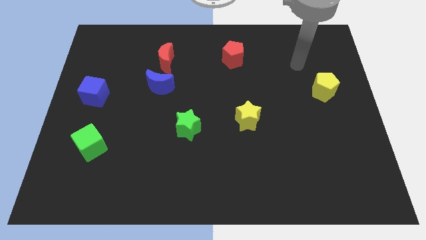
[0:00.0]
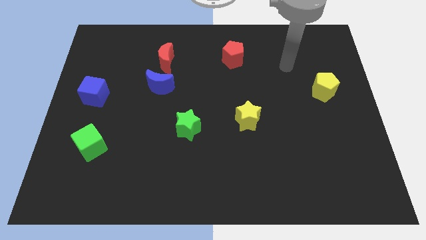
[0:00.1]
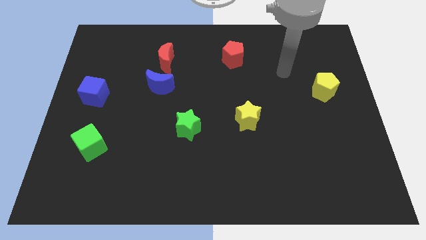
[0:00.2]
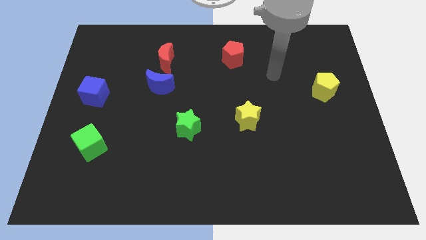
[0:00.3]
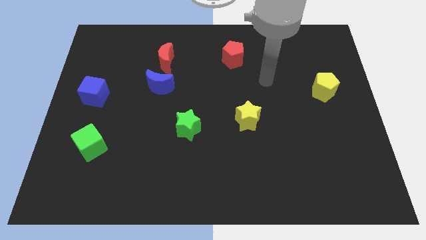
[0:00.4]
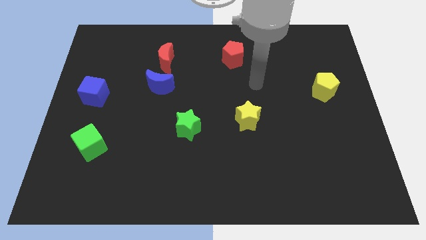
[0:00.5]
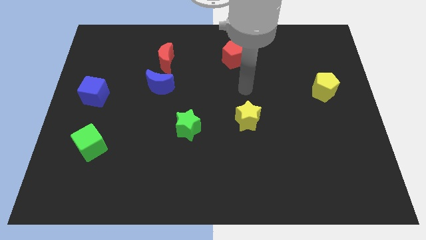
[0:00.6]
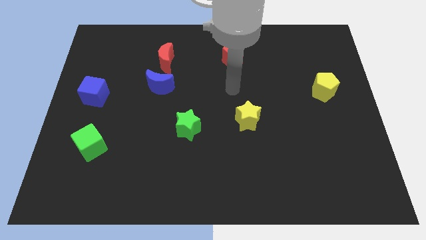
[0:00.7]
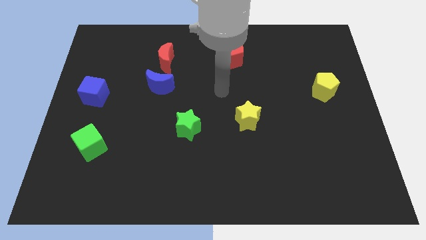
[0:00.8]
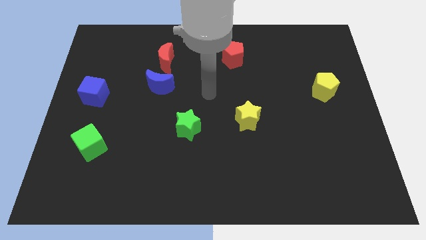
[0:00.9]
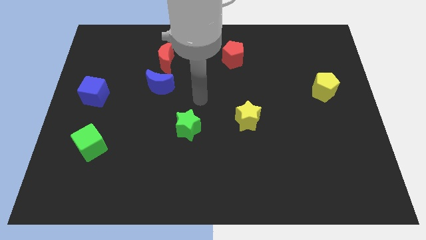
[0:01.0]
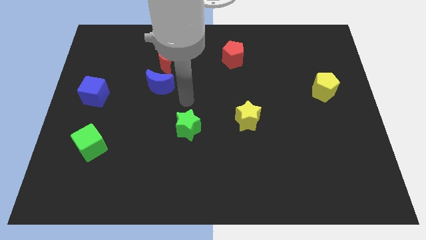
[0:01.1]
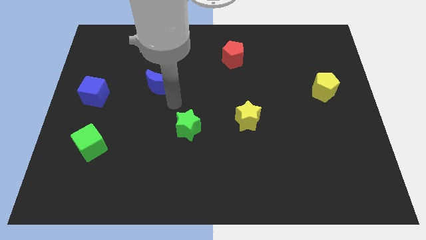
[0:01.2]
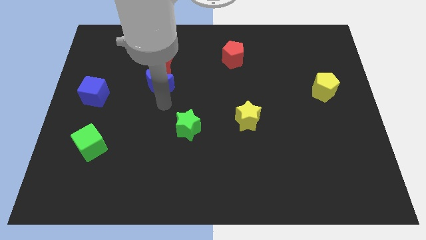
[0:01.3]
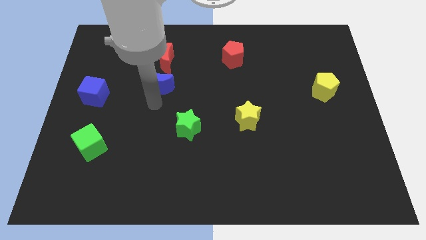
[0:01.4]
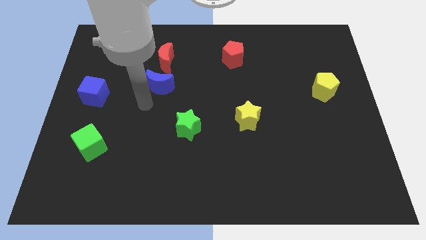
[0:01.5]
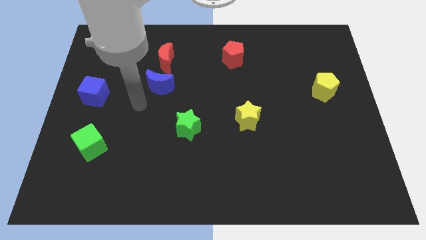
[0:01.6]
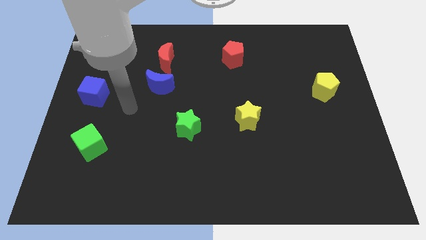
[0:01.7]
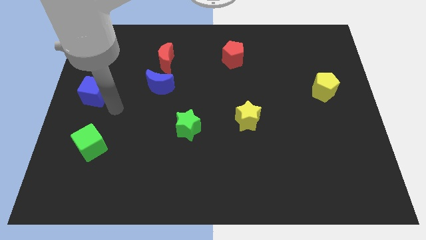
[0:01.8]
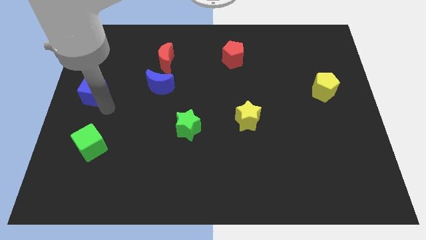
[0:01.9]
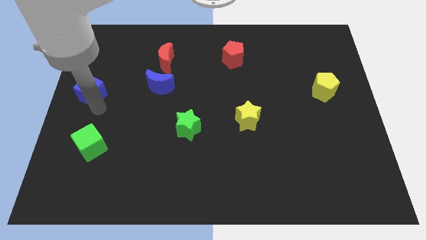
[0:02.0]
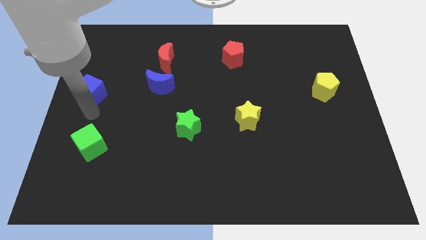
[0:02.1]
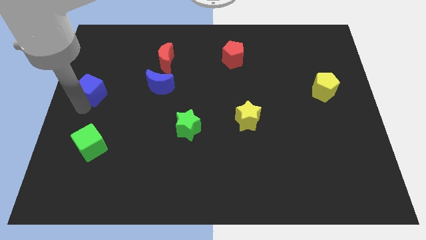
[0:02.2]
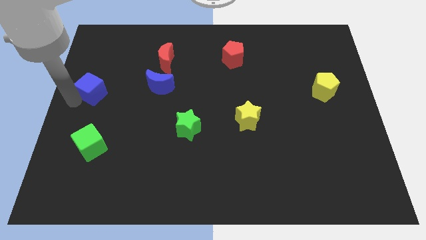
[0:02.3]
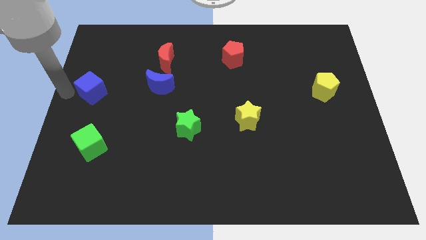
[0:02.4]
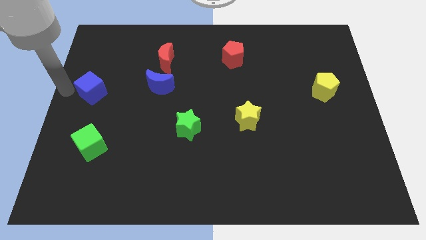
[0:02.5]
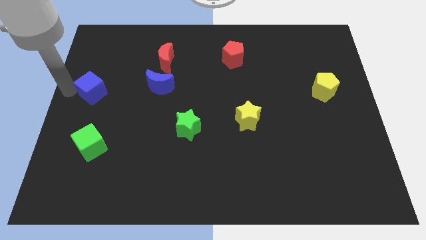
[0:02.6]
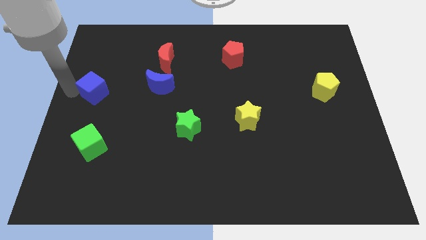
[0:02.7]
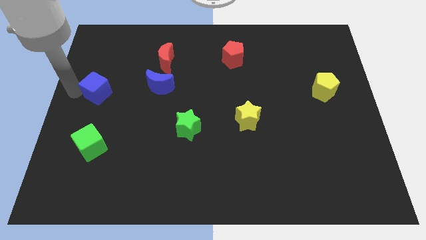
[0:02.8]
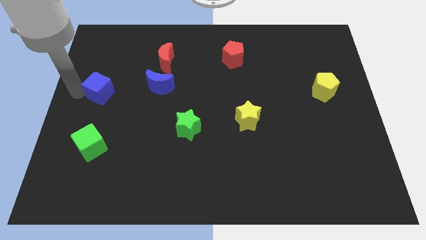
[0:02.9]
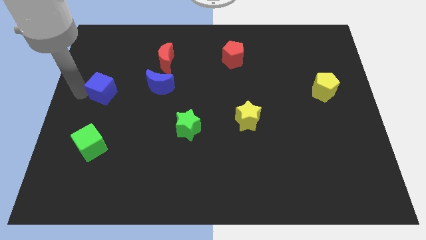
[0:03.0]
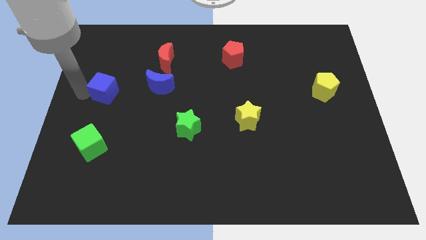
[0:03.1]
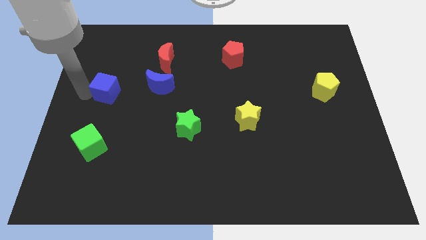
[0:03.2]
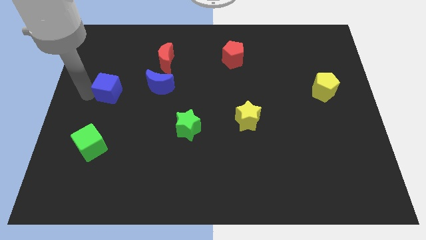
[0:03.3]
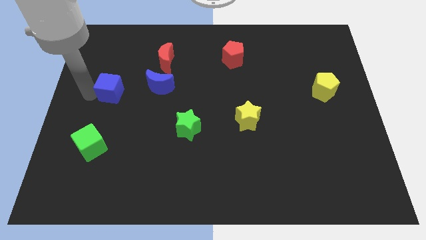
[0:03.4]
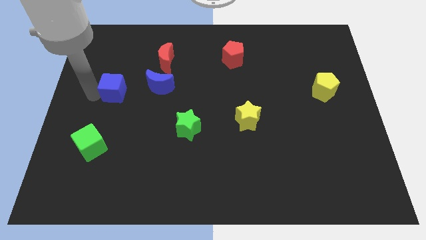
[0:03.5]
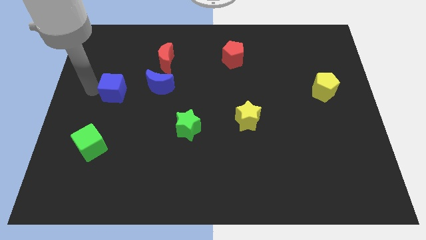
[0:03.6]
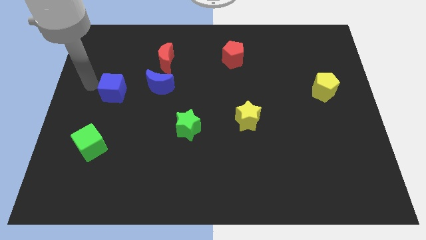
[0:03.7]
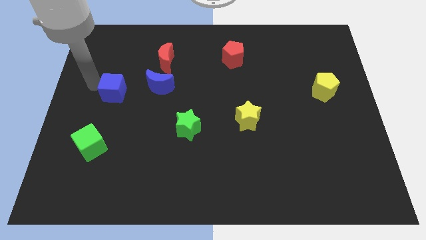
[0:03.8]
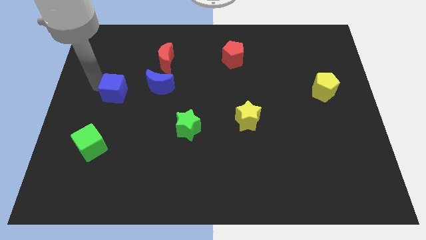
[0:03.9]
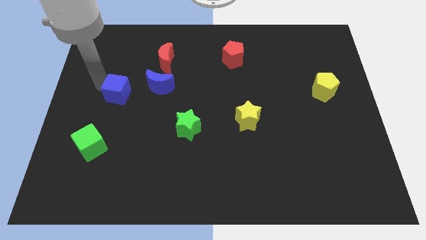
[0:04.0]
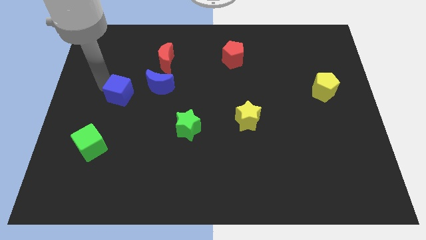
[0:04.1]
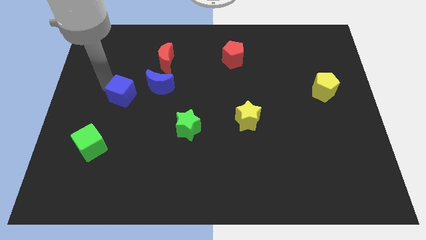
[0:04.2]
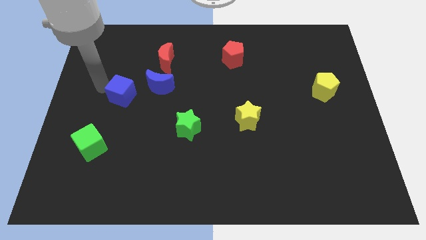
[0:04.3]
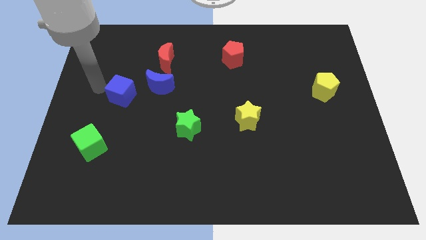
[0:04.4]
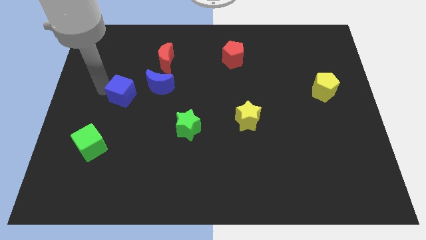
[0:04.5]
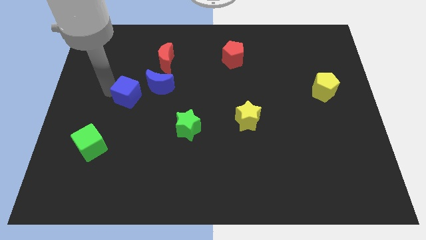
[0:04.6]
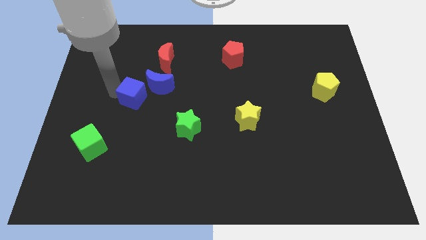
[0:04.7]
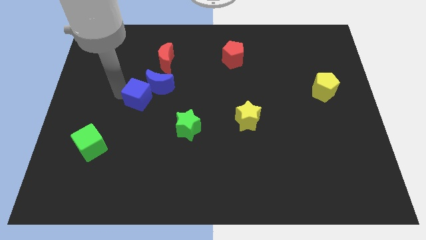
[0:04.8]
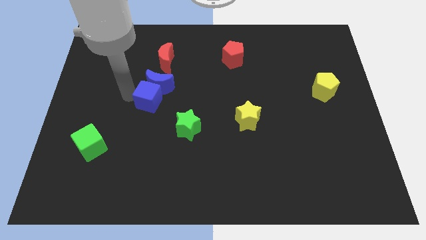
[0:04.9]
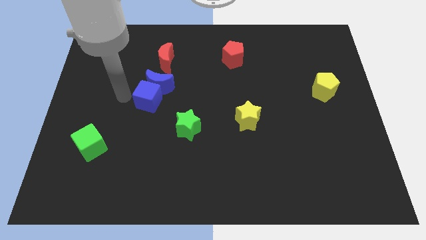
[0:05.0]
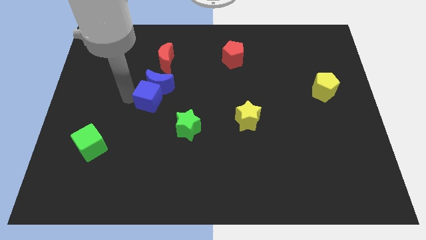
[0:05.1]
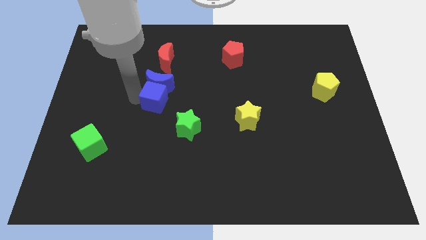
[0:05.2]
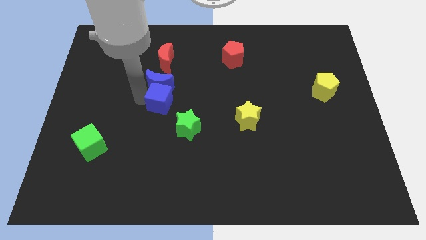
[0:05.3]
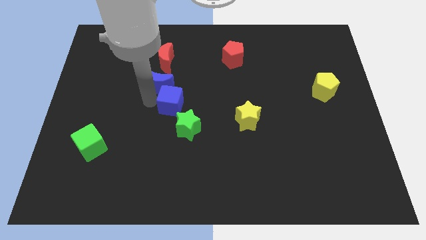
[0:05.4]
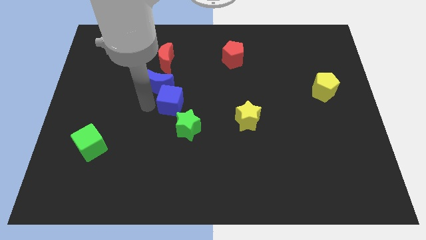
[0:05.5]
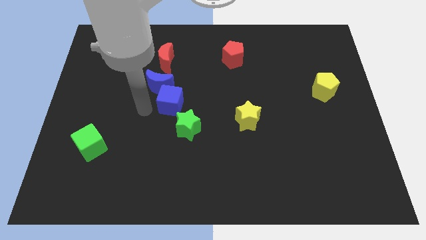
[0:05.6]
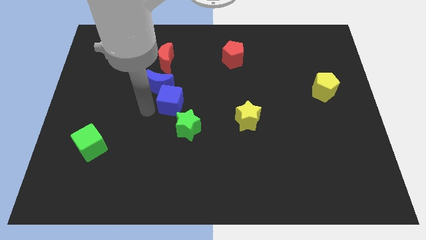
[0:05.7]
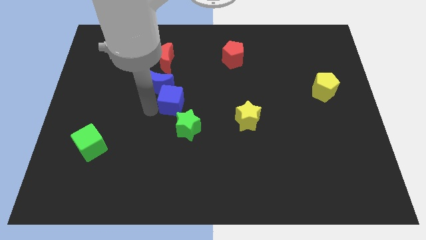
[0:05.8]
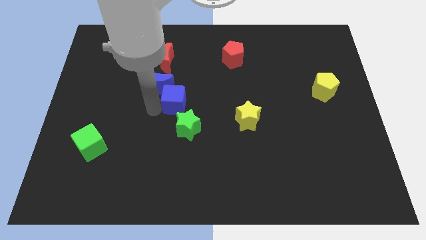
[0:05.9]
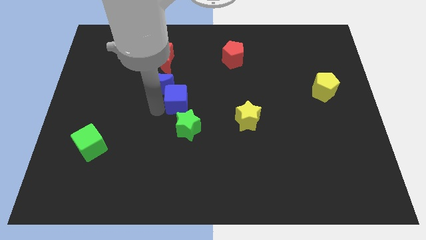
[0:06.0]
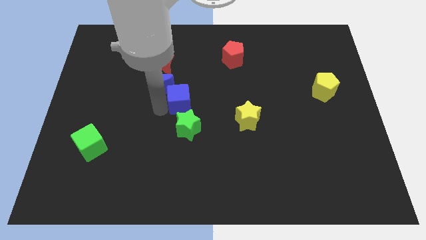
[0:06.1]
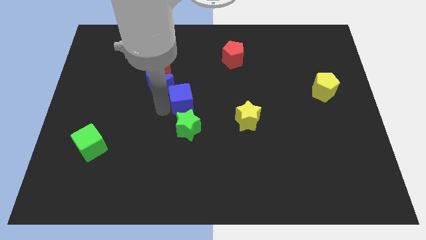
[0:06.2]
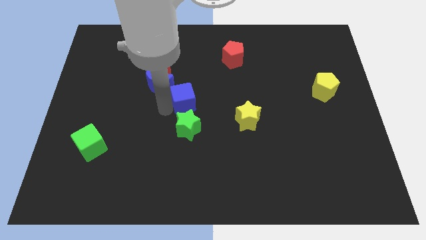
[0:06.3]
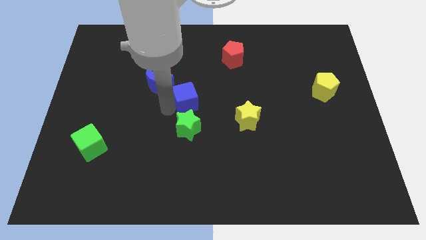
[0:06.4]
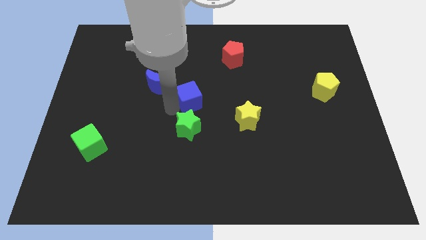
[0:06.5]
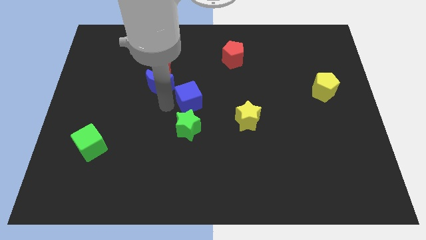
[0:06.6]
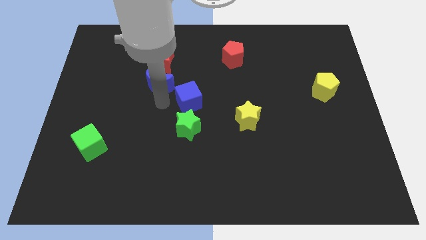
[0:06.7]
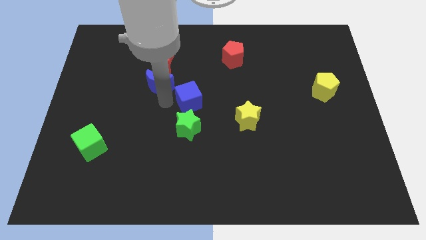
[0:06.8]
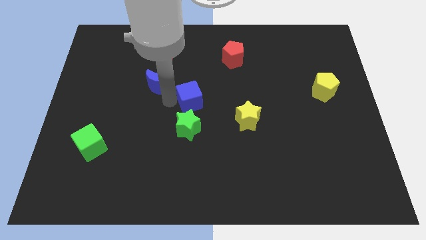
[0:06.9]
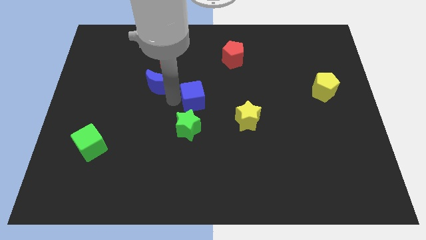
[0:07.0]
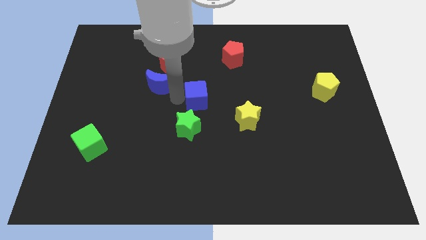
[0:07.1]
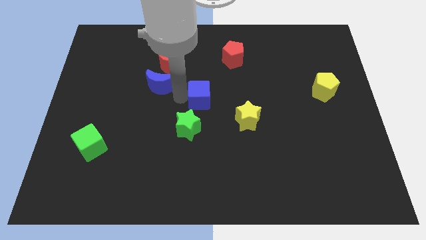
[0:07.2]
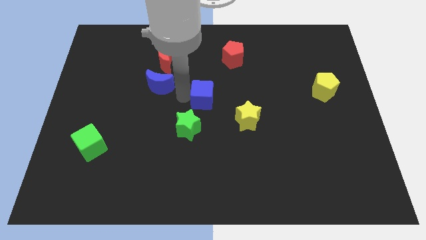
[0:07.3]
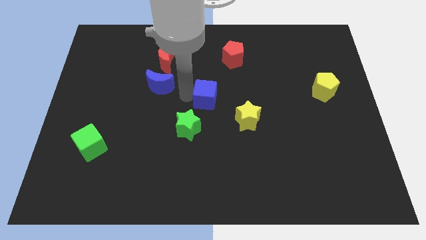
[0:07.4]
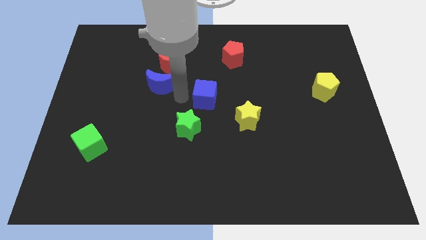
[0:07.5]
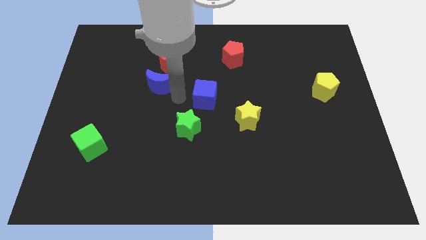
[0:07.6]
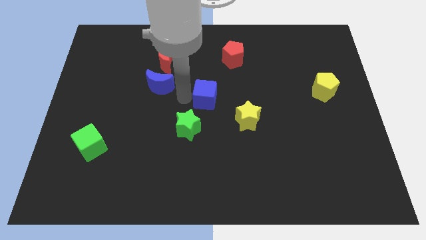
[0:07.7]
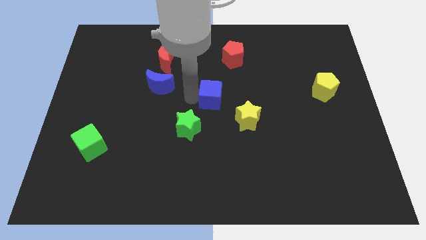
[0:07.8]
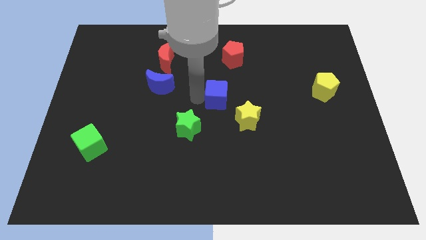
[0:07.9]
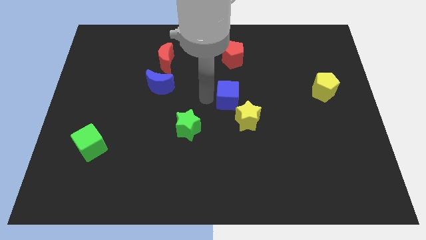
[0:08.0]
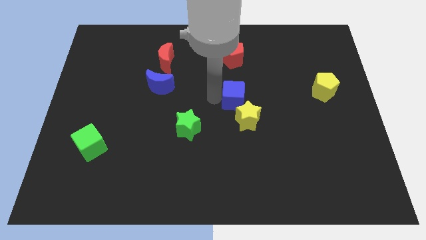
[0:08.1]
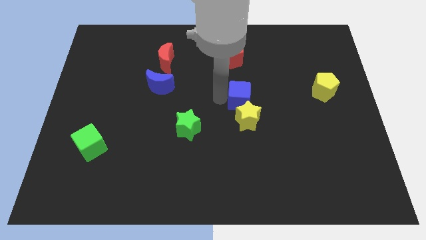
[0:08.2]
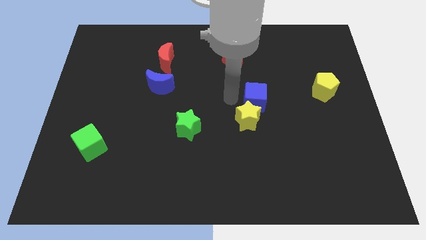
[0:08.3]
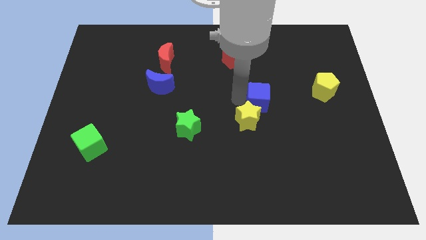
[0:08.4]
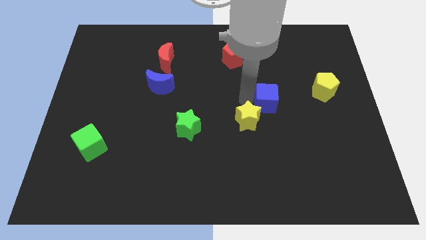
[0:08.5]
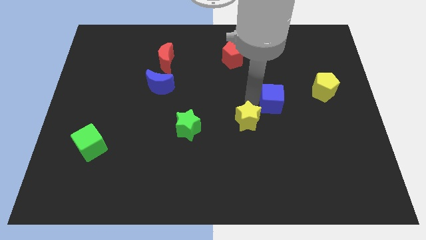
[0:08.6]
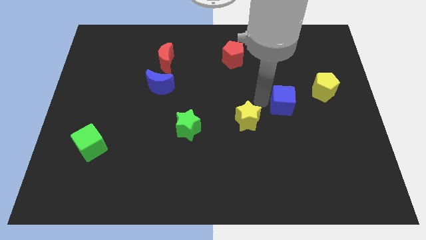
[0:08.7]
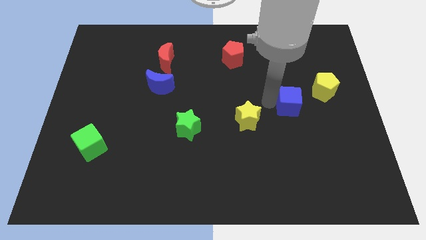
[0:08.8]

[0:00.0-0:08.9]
move the blue cube diagonally down and to the left of the yellow pentagon
